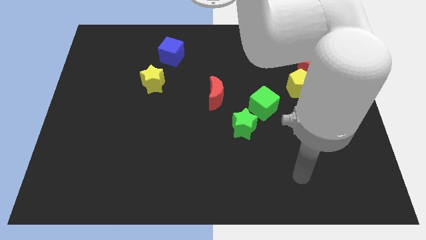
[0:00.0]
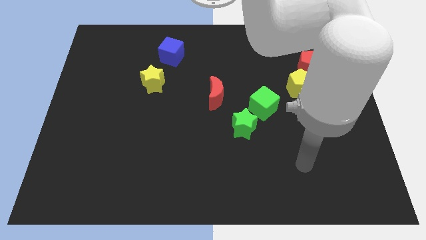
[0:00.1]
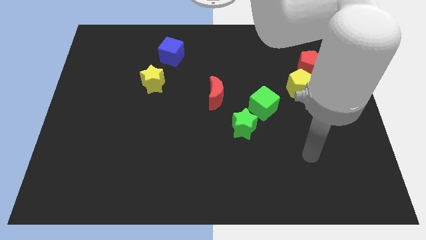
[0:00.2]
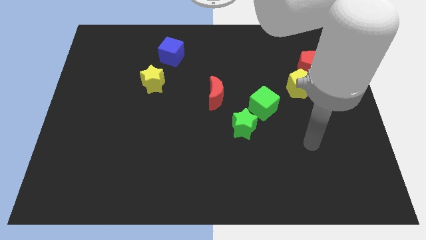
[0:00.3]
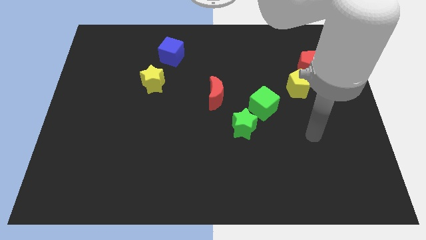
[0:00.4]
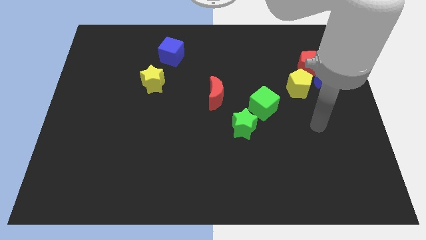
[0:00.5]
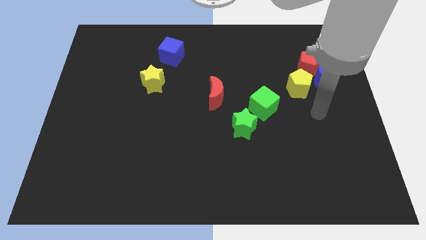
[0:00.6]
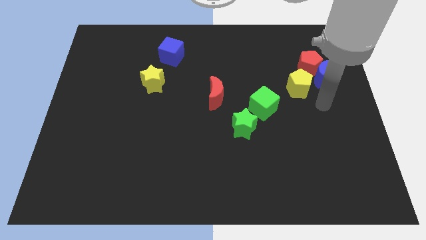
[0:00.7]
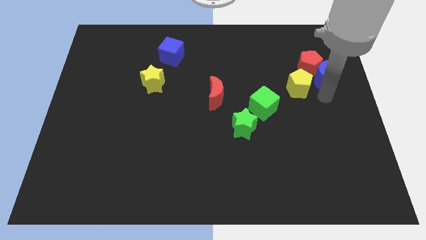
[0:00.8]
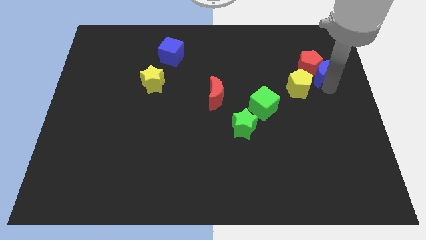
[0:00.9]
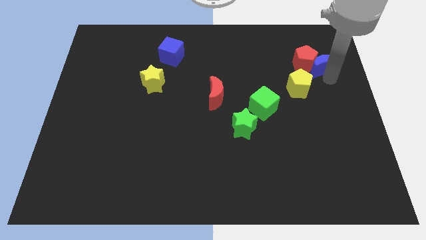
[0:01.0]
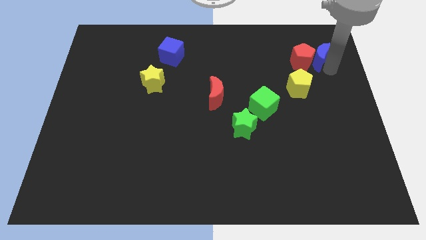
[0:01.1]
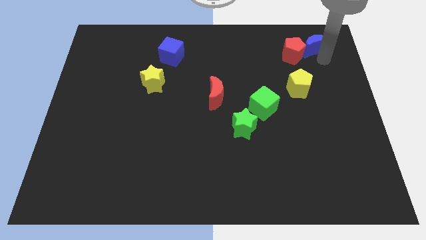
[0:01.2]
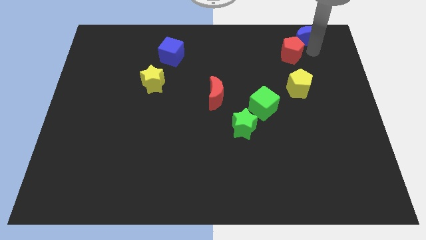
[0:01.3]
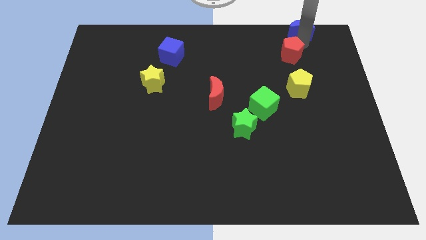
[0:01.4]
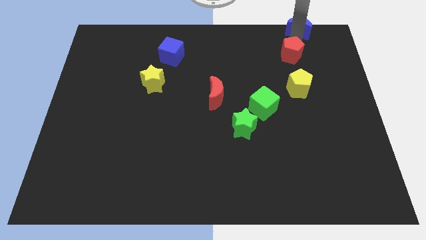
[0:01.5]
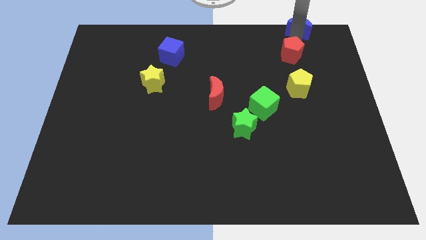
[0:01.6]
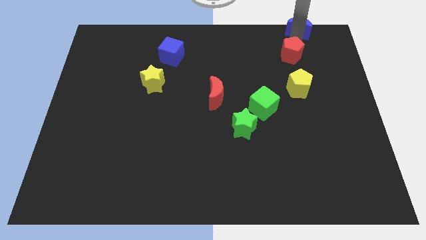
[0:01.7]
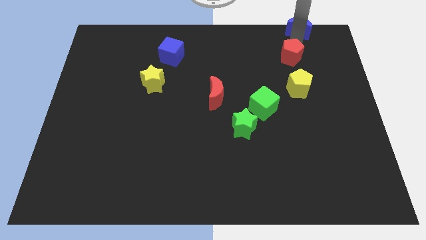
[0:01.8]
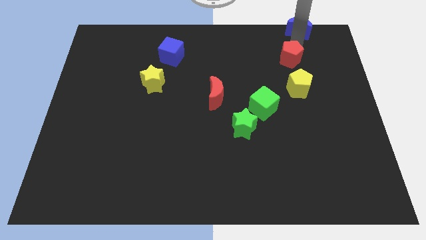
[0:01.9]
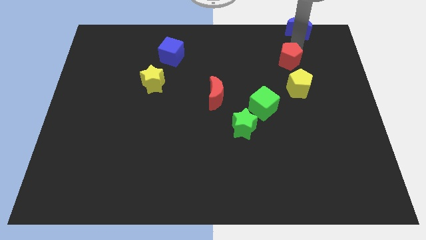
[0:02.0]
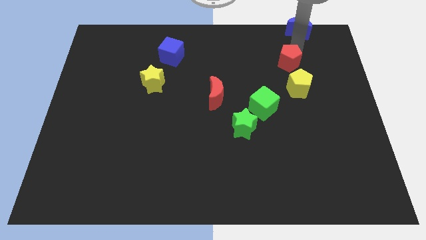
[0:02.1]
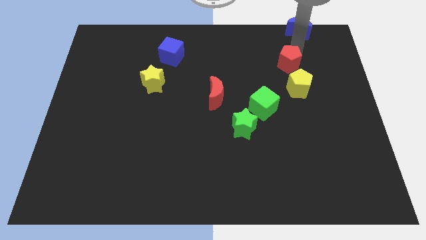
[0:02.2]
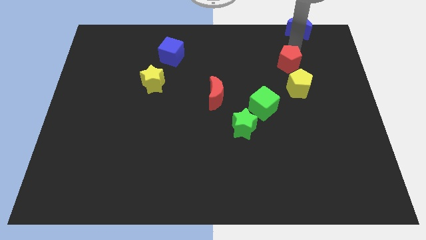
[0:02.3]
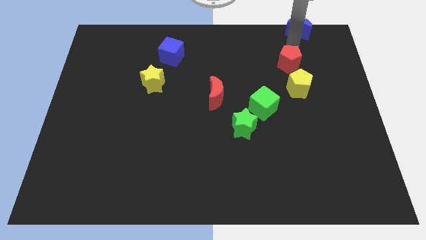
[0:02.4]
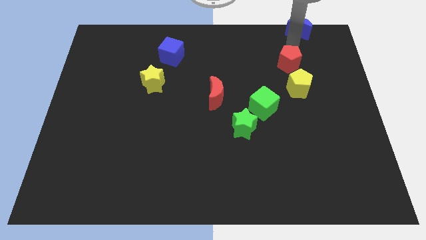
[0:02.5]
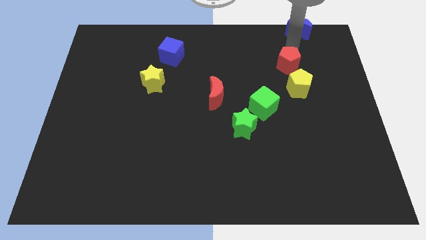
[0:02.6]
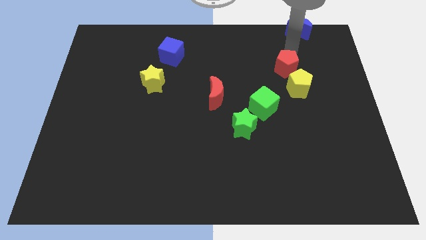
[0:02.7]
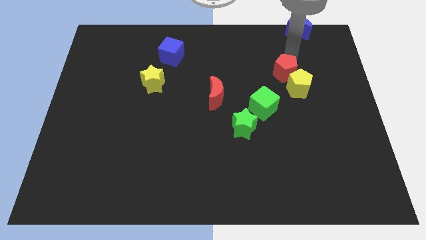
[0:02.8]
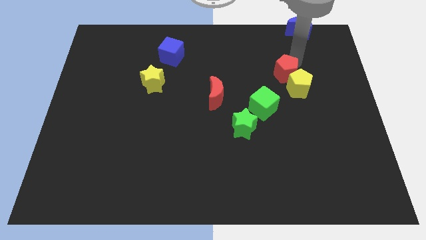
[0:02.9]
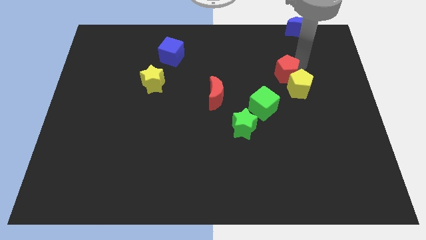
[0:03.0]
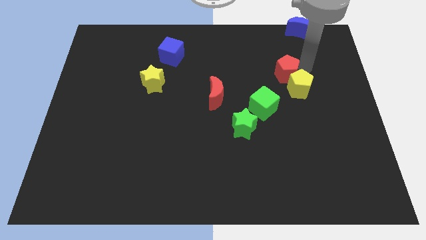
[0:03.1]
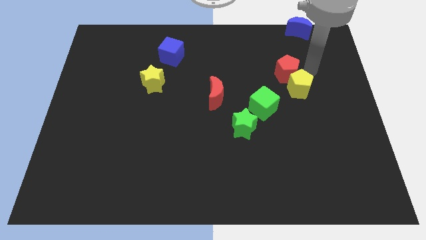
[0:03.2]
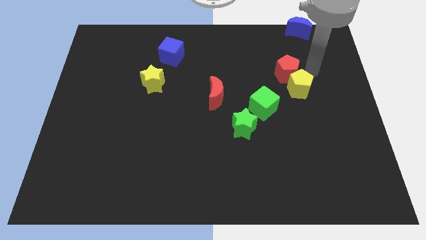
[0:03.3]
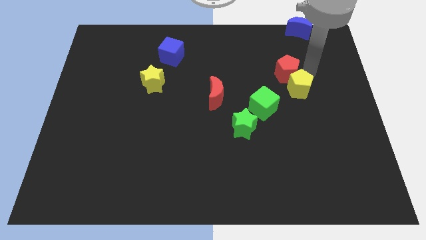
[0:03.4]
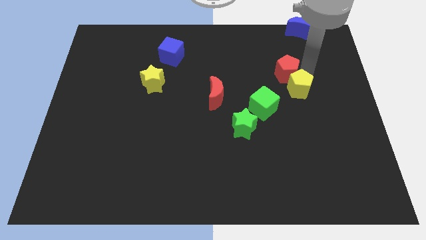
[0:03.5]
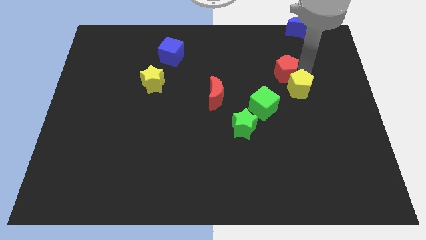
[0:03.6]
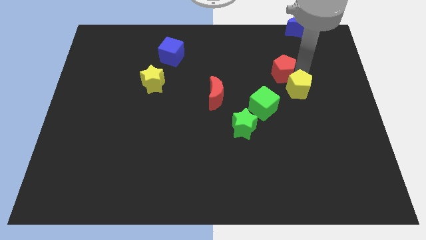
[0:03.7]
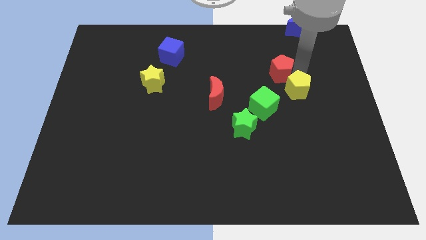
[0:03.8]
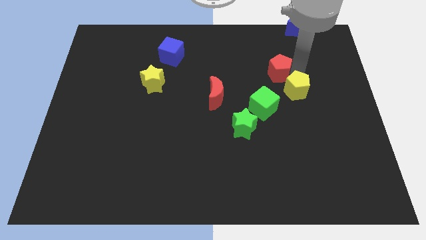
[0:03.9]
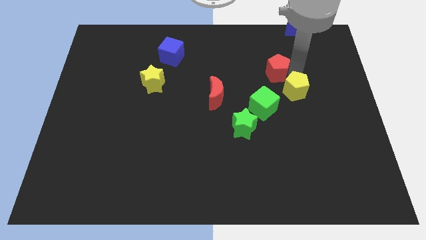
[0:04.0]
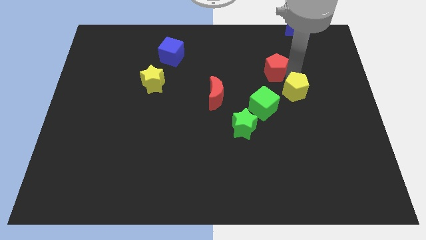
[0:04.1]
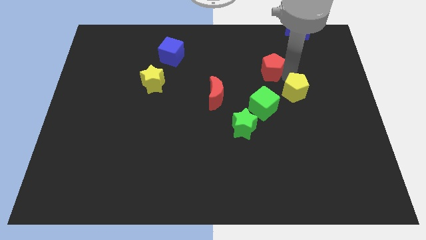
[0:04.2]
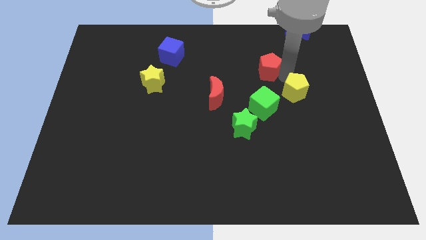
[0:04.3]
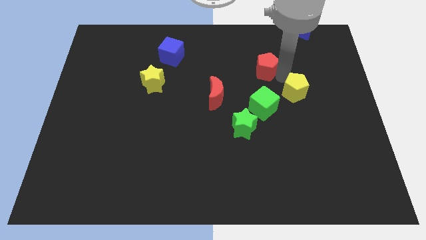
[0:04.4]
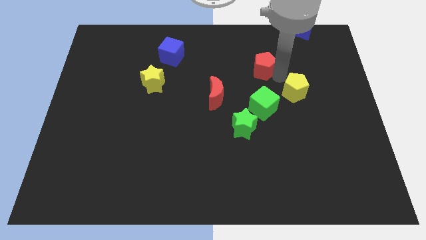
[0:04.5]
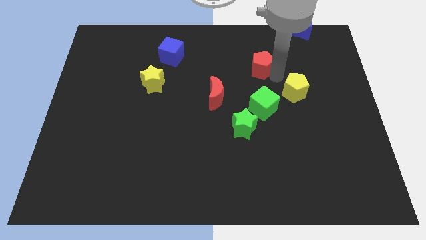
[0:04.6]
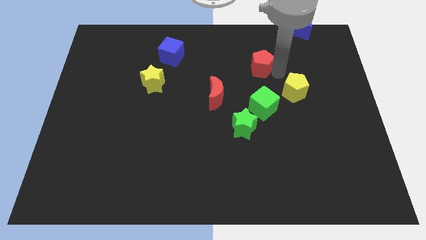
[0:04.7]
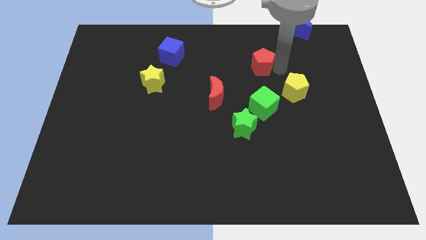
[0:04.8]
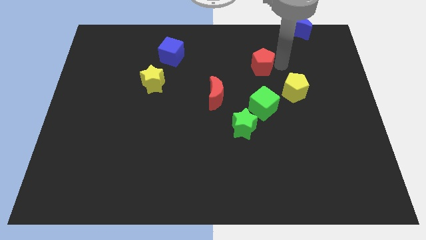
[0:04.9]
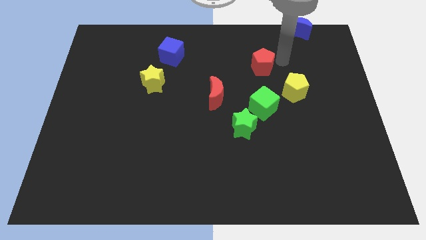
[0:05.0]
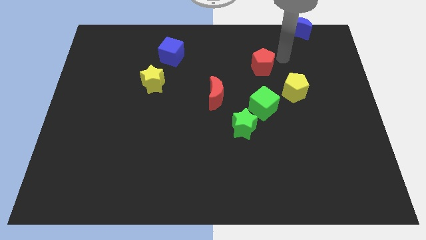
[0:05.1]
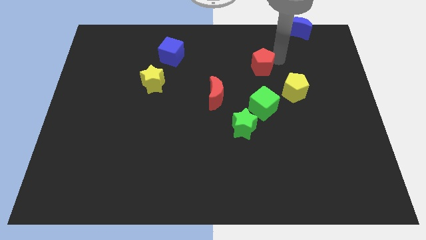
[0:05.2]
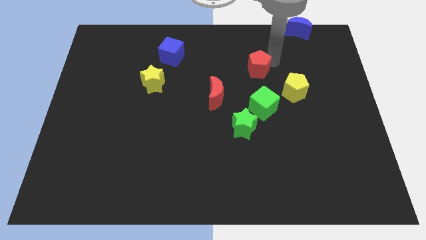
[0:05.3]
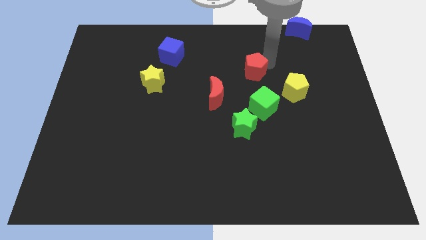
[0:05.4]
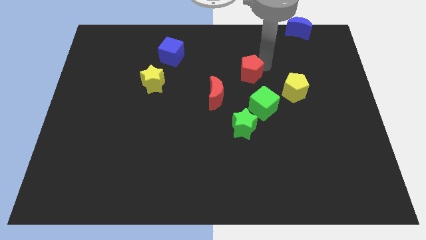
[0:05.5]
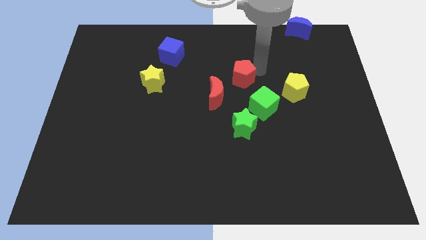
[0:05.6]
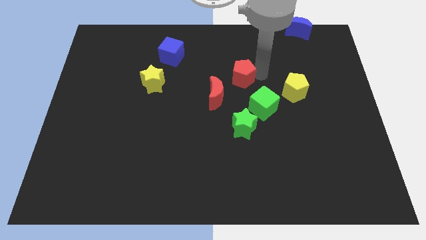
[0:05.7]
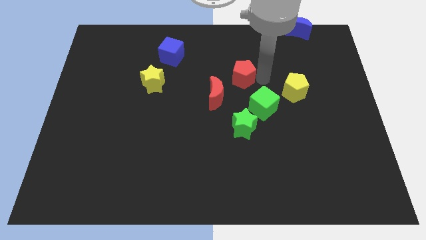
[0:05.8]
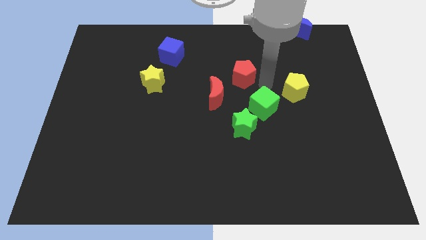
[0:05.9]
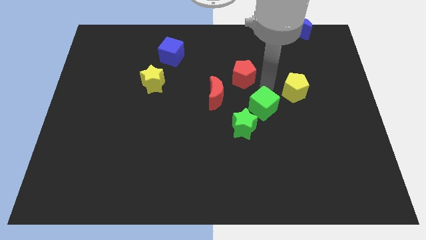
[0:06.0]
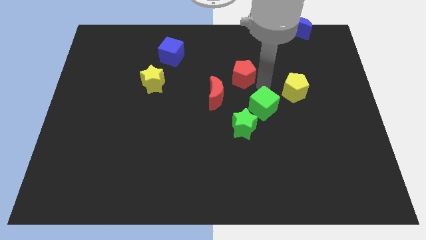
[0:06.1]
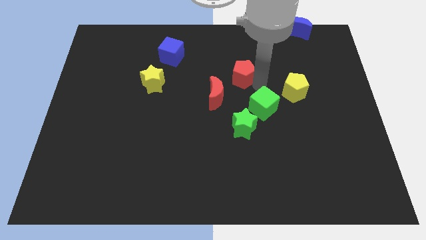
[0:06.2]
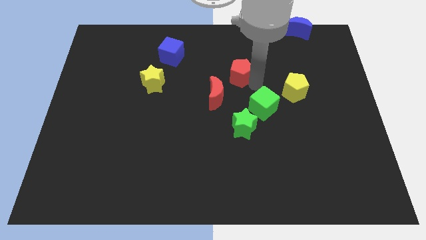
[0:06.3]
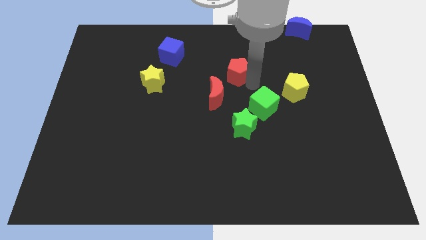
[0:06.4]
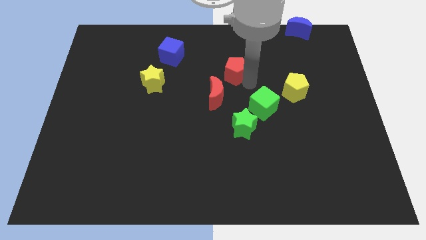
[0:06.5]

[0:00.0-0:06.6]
move the red pentagon above the red moon

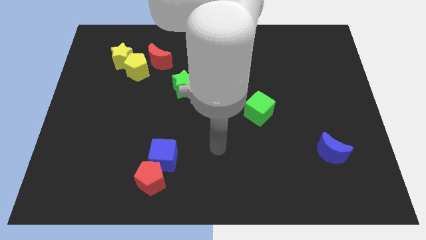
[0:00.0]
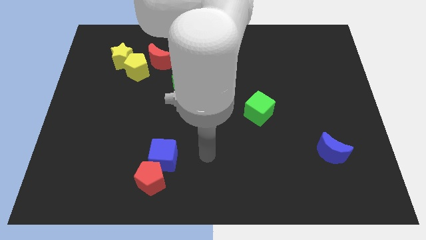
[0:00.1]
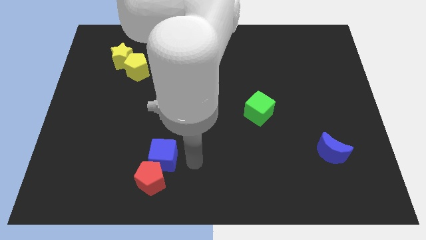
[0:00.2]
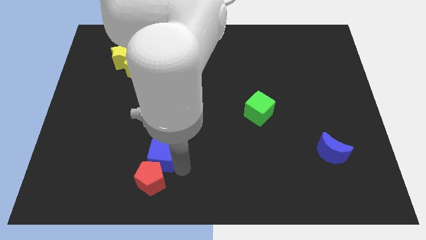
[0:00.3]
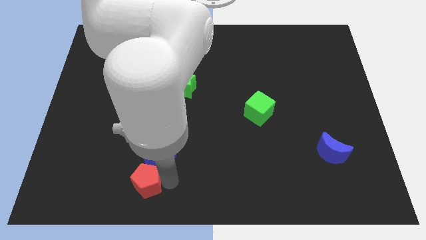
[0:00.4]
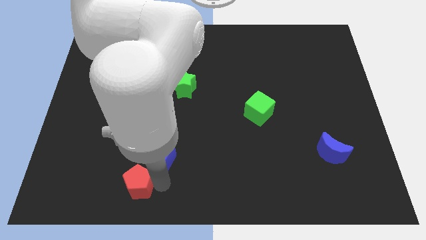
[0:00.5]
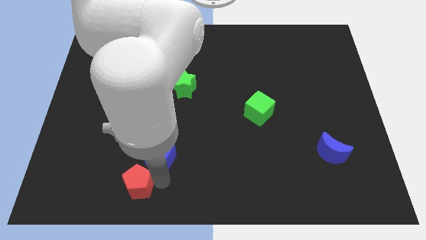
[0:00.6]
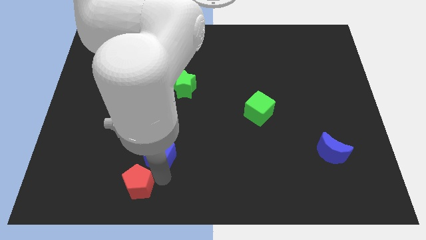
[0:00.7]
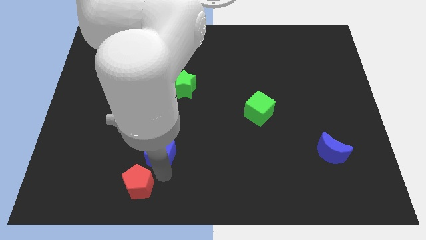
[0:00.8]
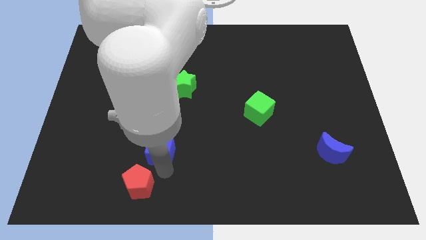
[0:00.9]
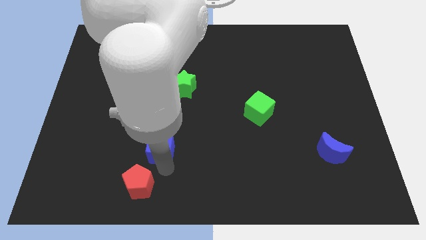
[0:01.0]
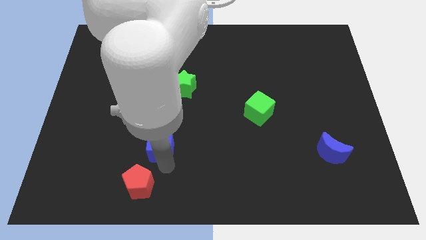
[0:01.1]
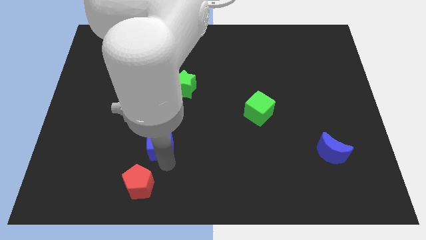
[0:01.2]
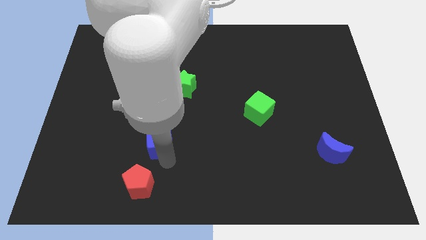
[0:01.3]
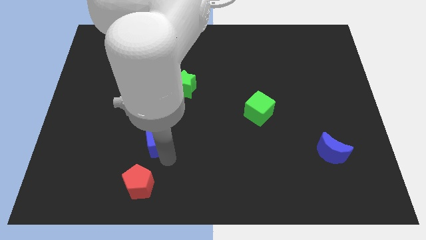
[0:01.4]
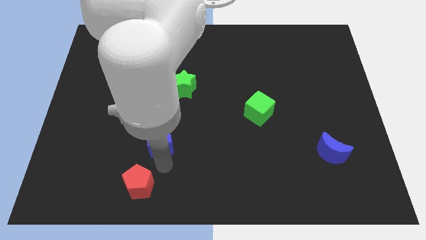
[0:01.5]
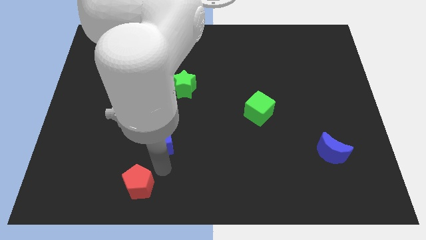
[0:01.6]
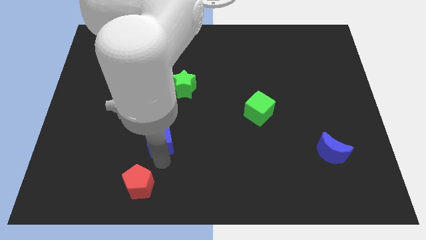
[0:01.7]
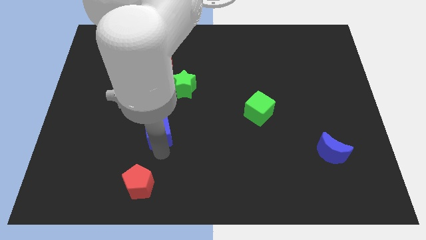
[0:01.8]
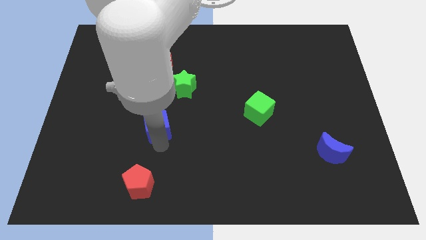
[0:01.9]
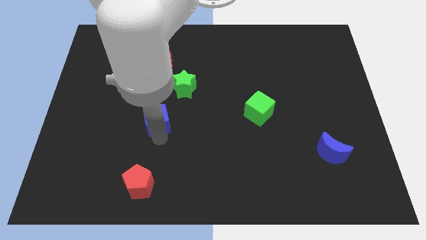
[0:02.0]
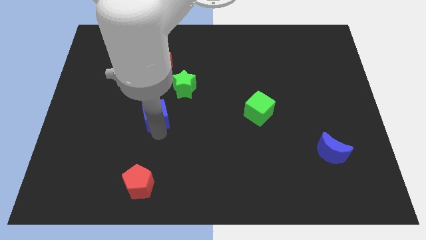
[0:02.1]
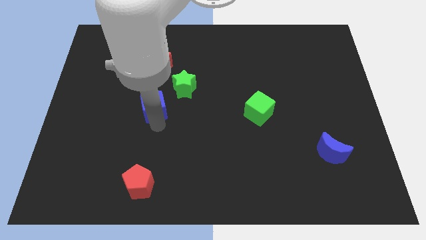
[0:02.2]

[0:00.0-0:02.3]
slide the blue cube to the bottom of the red moon
